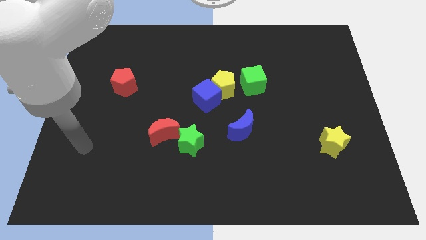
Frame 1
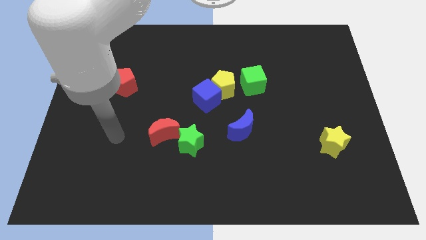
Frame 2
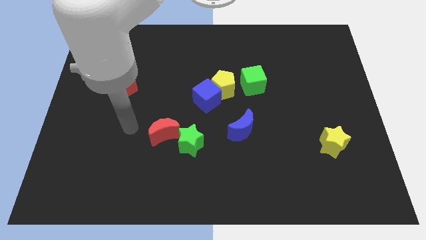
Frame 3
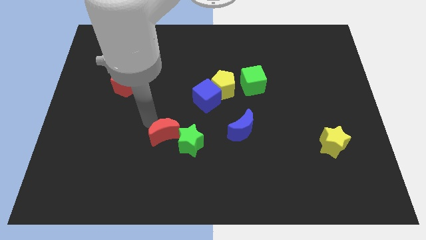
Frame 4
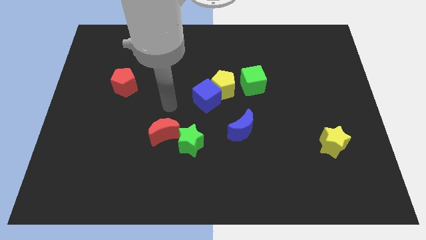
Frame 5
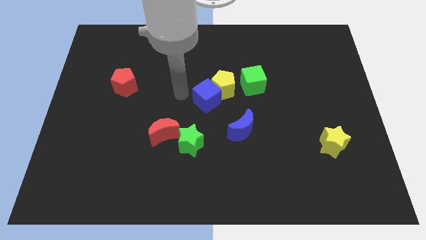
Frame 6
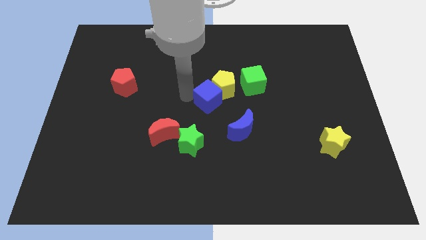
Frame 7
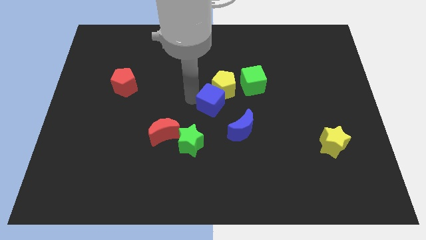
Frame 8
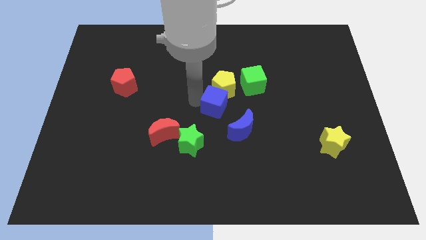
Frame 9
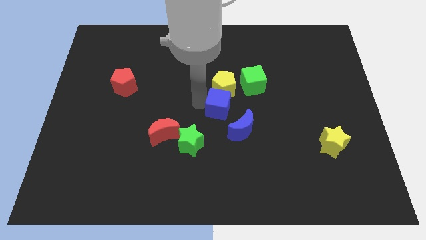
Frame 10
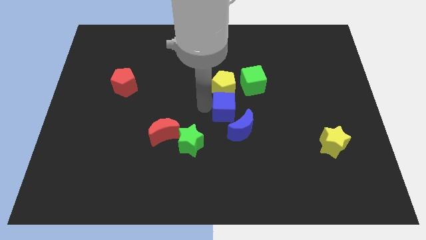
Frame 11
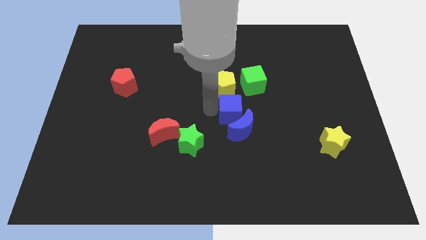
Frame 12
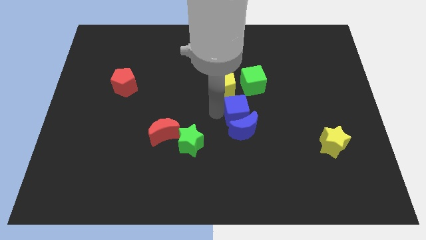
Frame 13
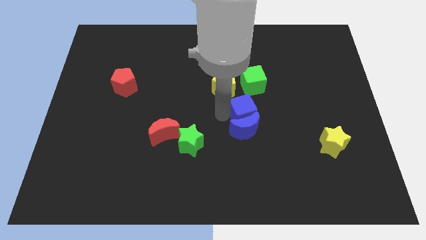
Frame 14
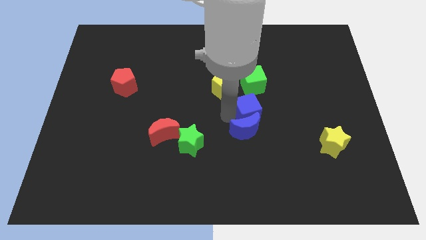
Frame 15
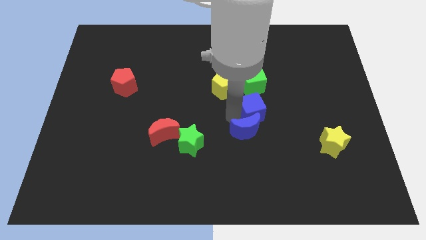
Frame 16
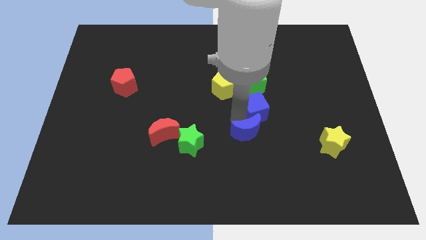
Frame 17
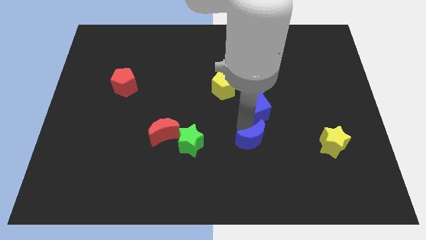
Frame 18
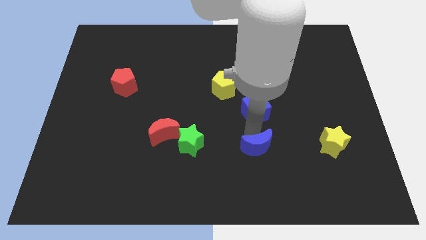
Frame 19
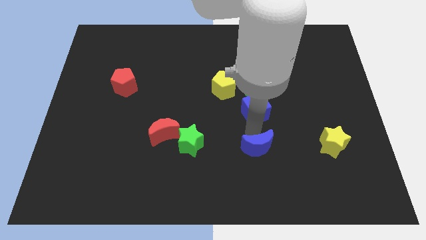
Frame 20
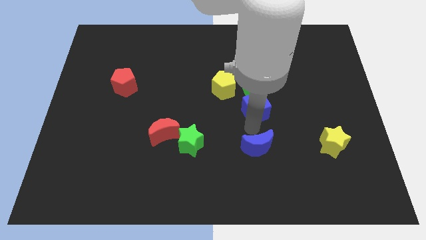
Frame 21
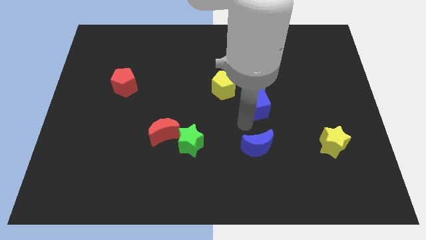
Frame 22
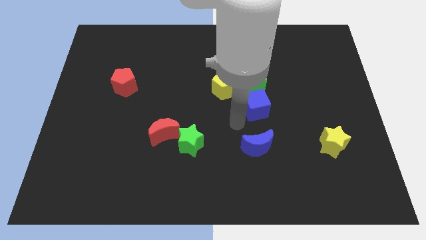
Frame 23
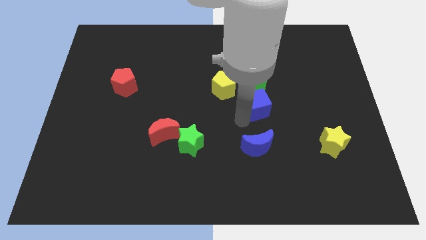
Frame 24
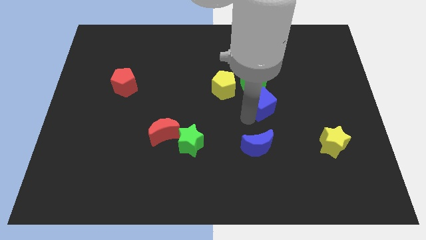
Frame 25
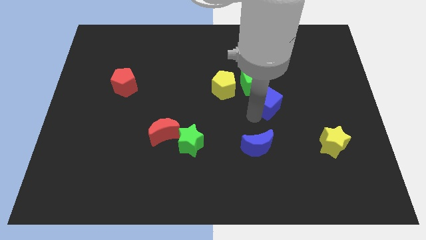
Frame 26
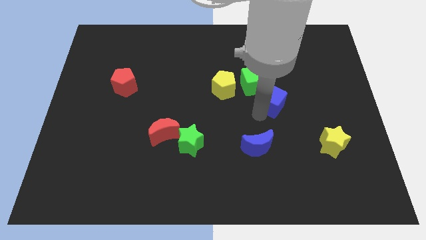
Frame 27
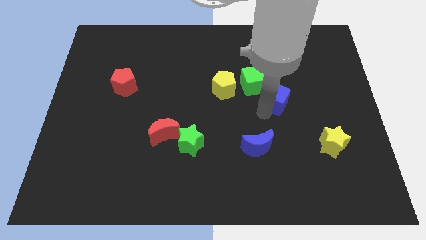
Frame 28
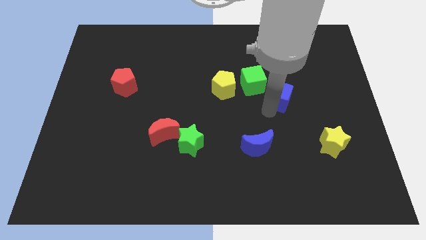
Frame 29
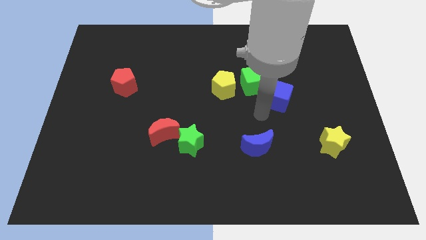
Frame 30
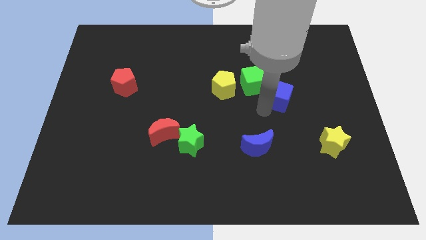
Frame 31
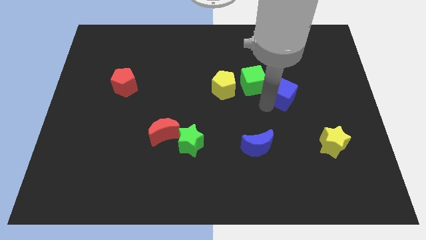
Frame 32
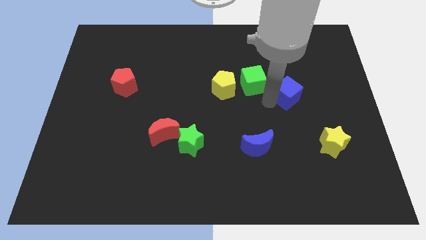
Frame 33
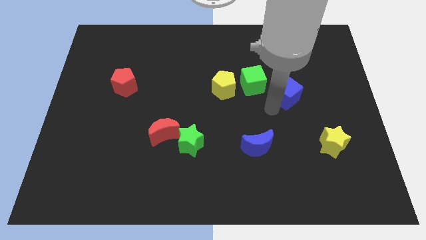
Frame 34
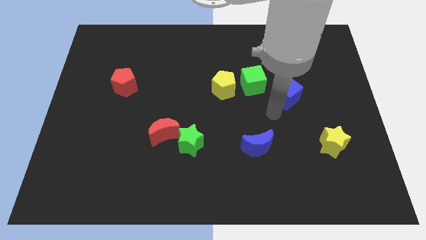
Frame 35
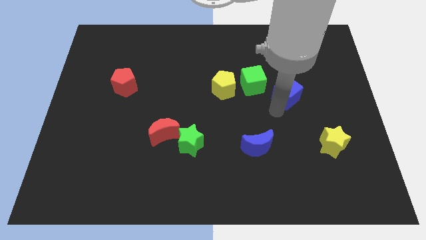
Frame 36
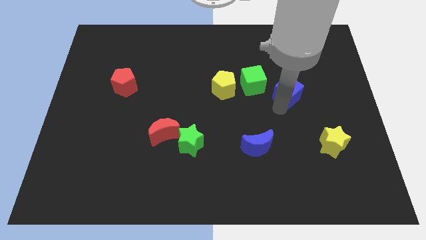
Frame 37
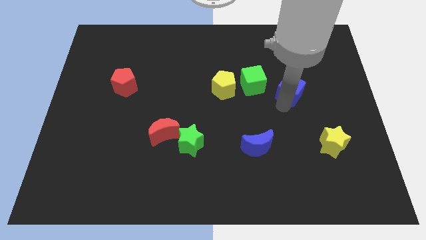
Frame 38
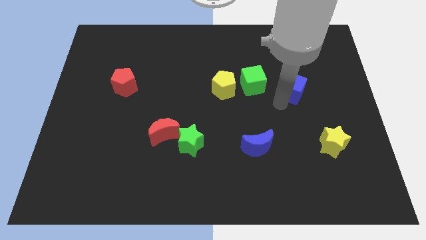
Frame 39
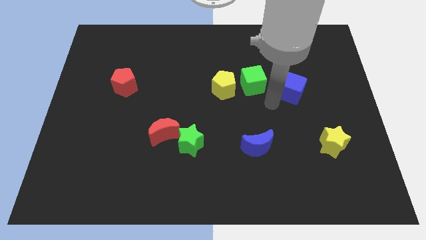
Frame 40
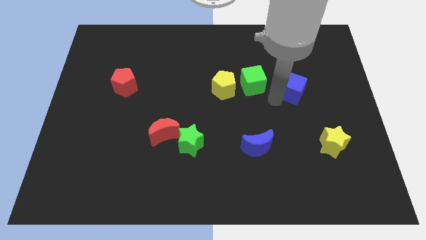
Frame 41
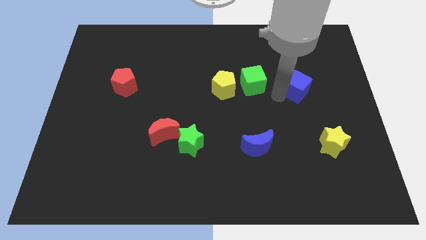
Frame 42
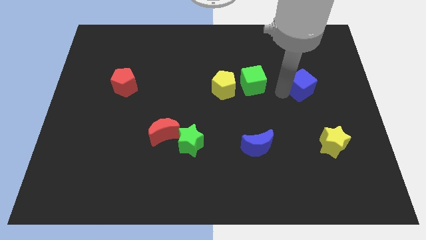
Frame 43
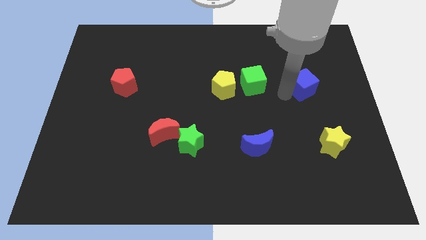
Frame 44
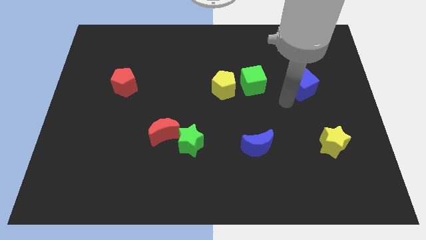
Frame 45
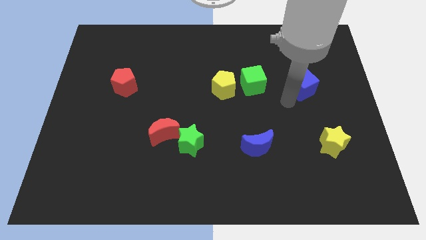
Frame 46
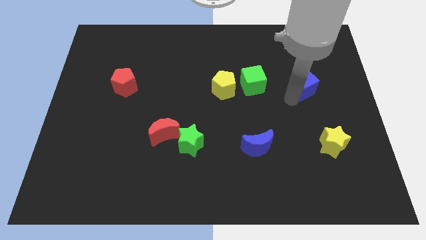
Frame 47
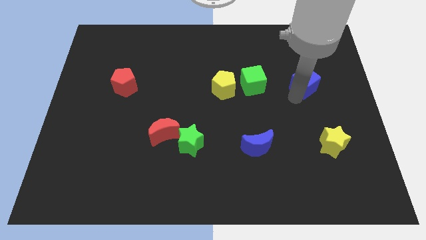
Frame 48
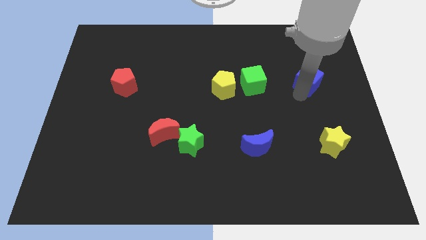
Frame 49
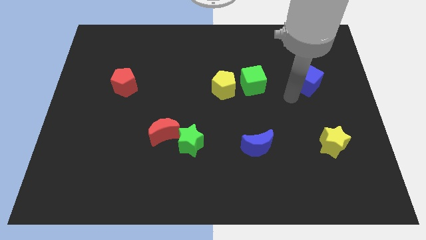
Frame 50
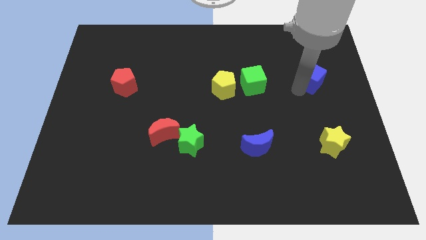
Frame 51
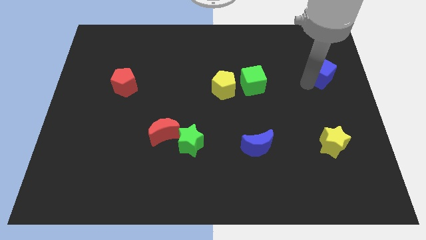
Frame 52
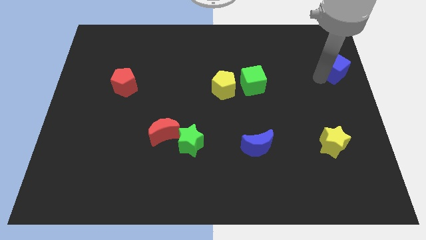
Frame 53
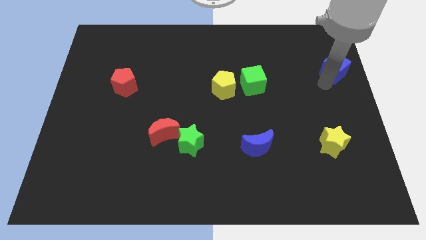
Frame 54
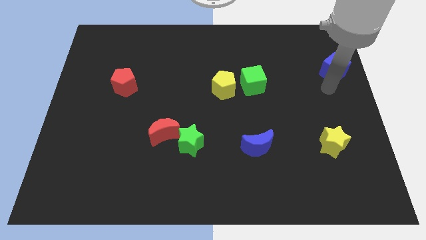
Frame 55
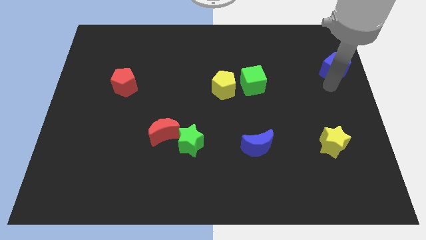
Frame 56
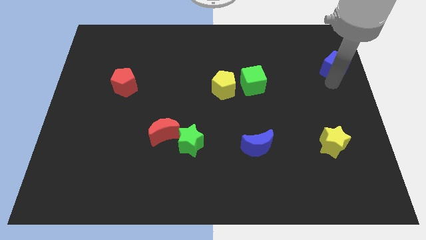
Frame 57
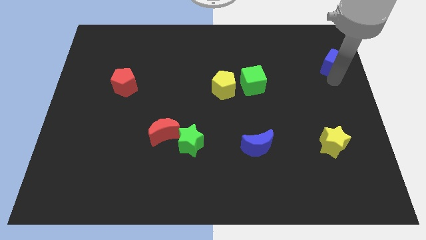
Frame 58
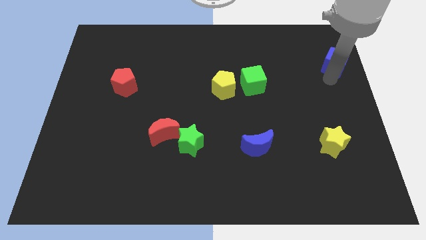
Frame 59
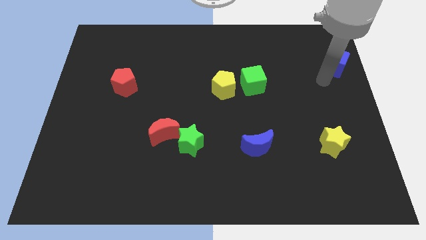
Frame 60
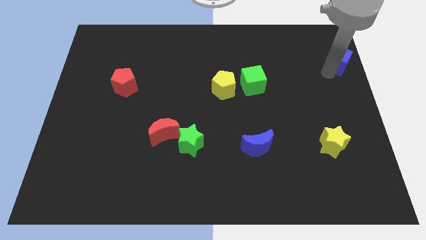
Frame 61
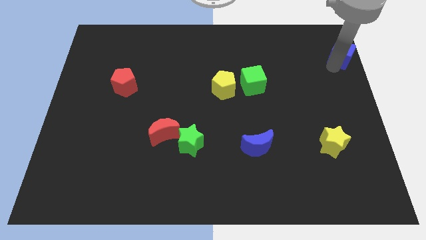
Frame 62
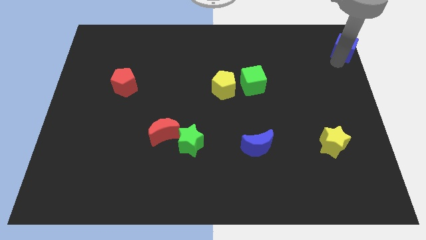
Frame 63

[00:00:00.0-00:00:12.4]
move the blue cube to the top right of the board

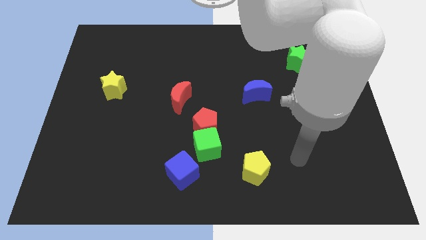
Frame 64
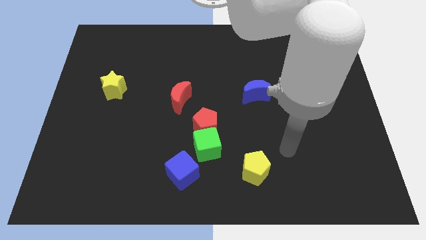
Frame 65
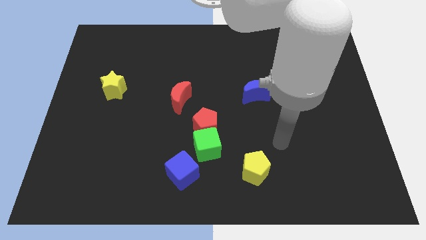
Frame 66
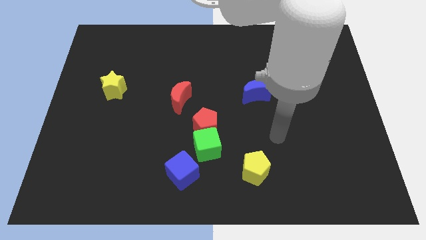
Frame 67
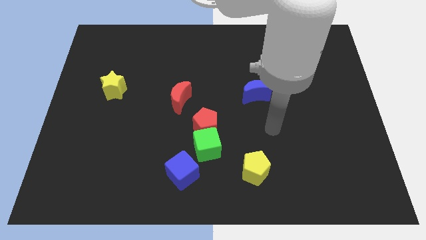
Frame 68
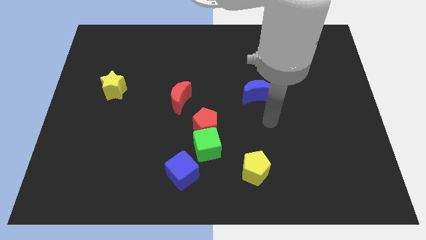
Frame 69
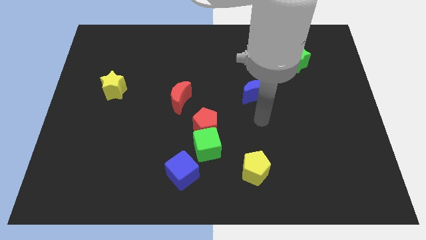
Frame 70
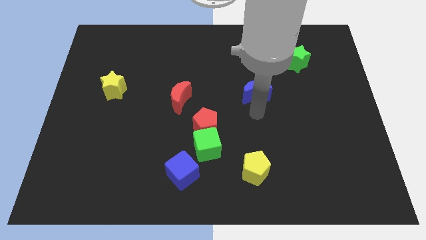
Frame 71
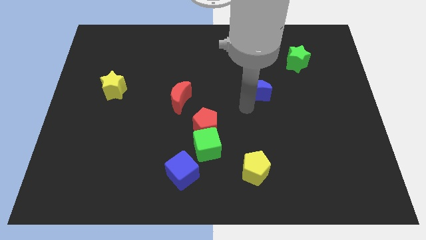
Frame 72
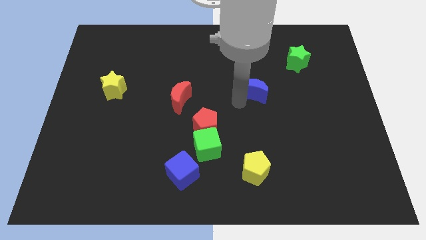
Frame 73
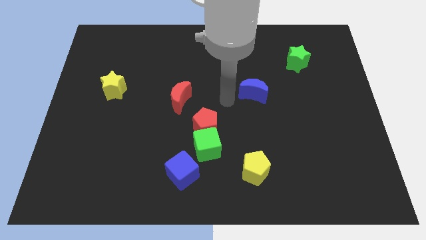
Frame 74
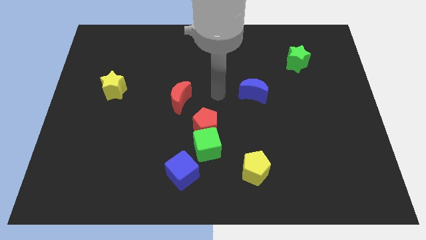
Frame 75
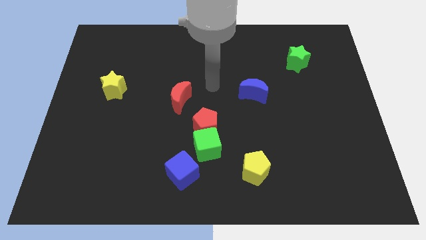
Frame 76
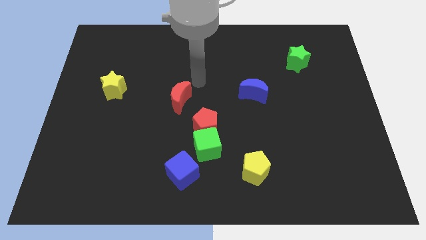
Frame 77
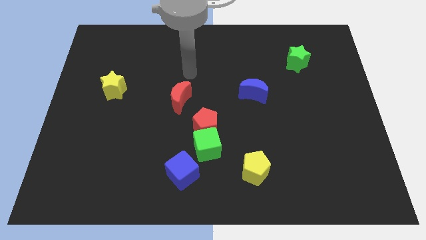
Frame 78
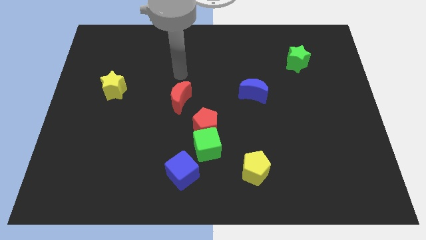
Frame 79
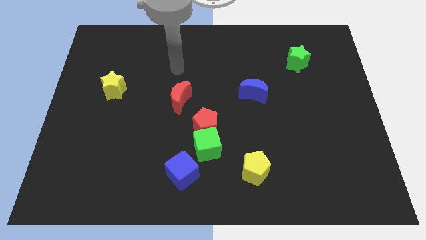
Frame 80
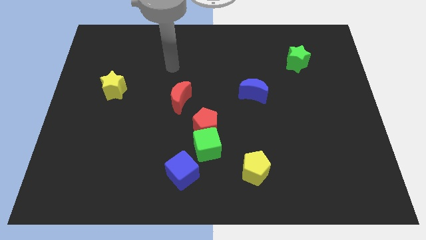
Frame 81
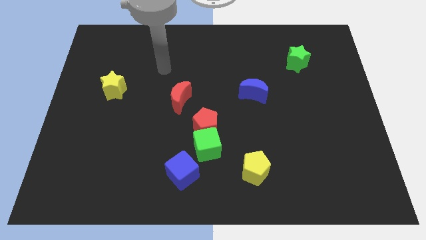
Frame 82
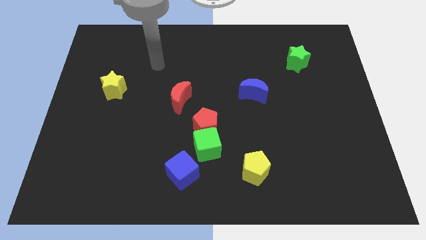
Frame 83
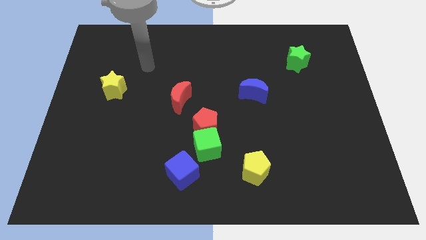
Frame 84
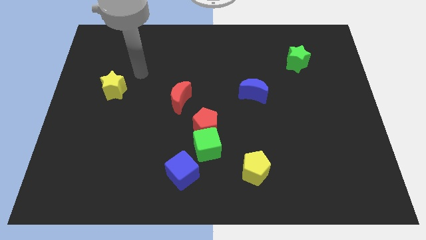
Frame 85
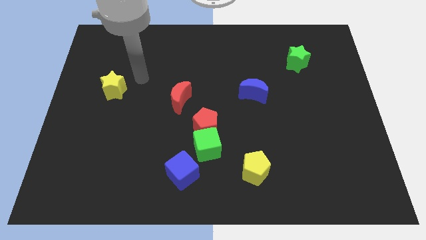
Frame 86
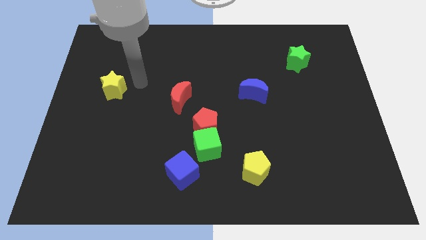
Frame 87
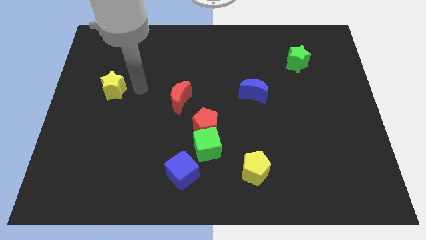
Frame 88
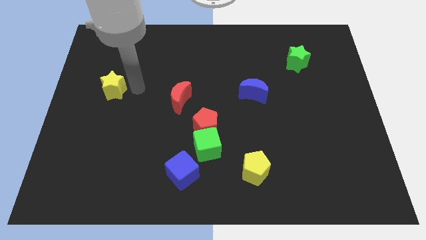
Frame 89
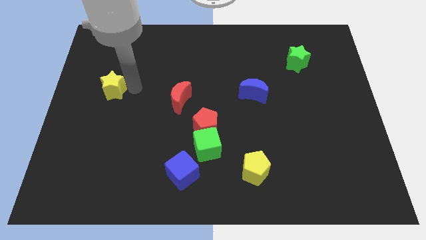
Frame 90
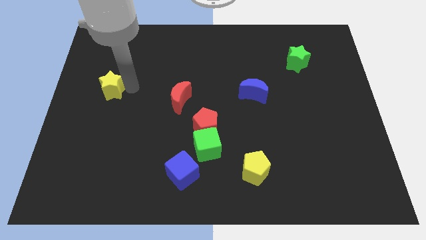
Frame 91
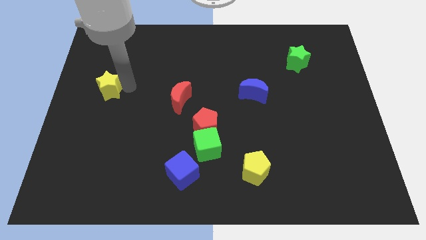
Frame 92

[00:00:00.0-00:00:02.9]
put the yellow star to the left side
